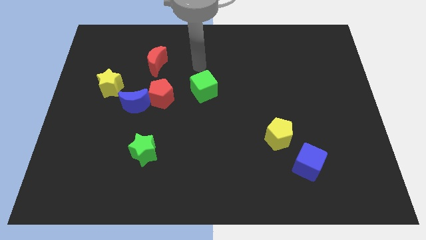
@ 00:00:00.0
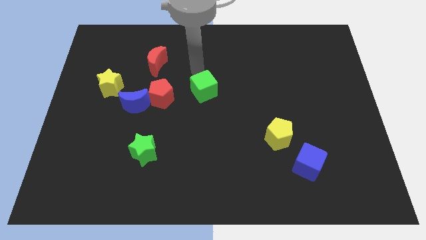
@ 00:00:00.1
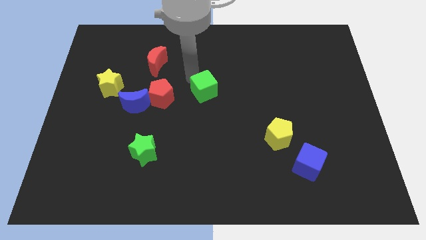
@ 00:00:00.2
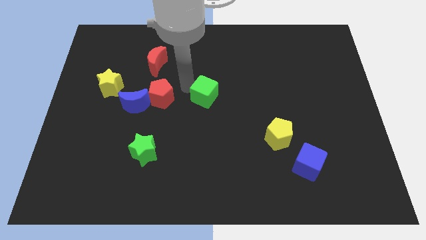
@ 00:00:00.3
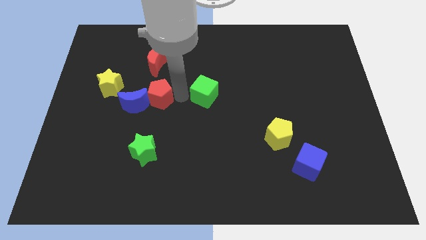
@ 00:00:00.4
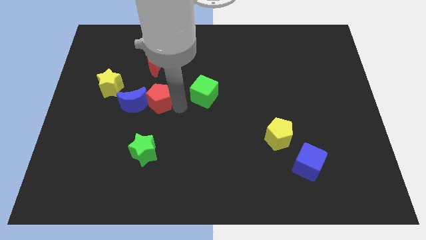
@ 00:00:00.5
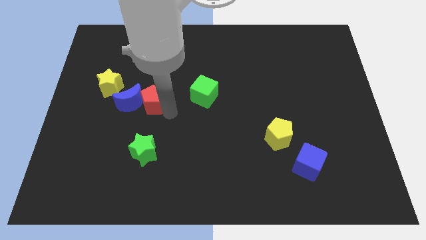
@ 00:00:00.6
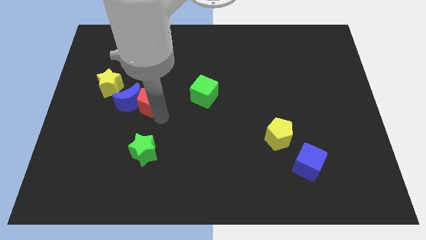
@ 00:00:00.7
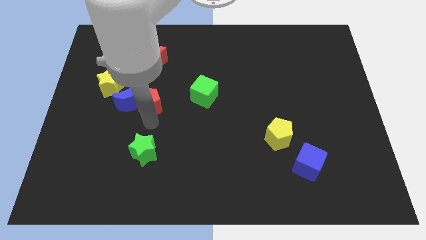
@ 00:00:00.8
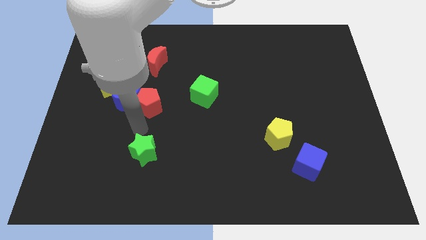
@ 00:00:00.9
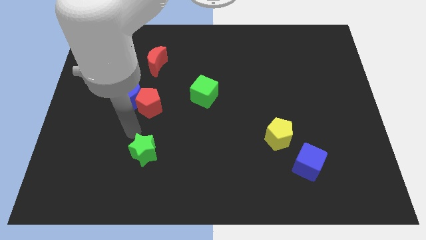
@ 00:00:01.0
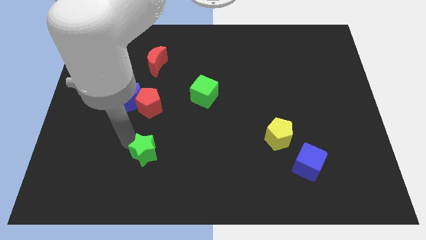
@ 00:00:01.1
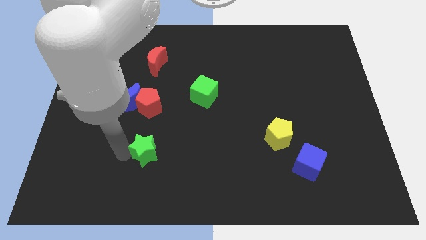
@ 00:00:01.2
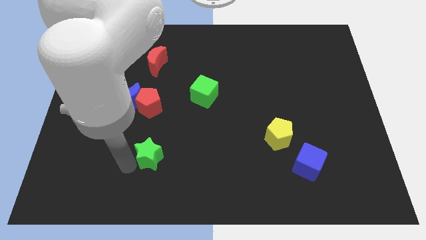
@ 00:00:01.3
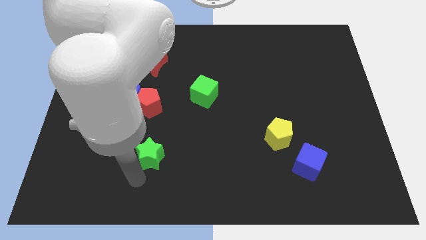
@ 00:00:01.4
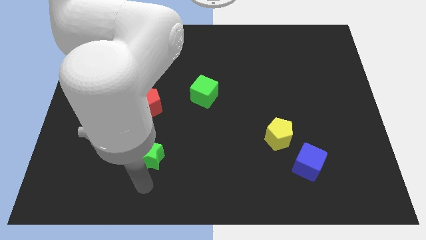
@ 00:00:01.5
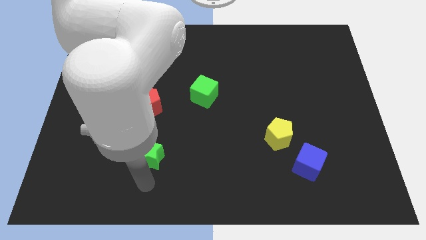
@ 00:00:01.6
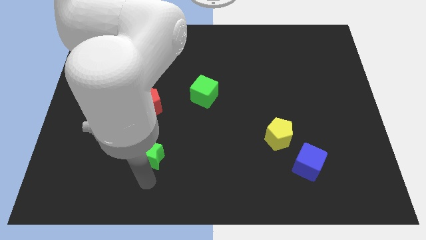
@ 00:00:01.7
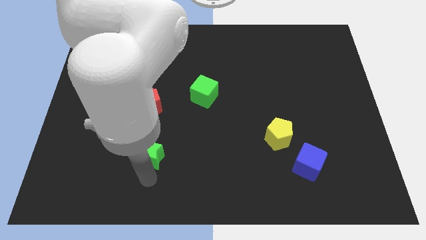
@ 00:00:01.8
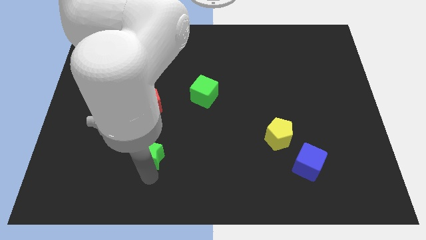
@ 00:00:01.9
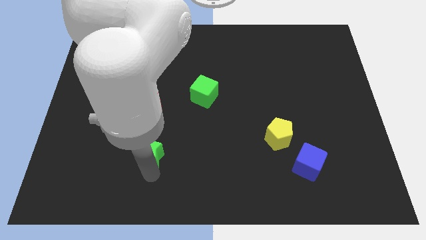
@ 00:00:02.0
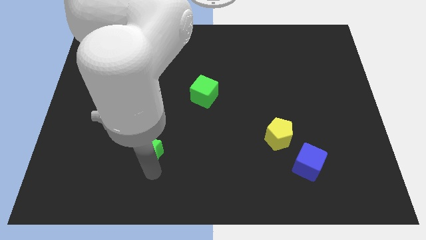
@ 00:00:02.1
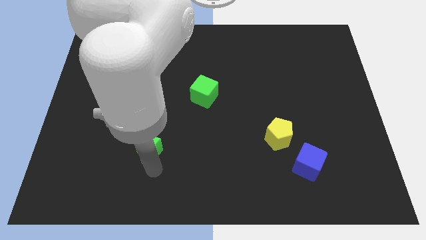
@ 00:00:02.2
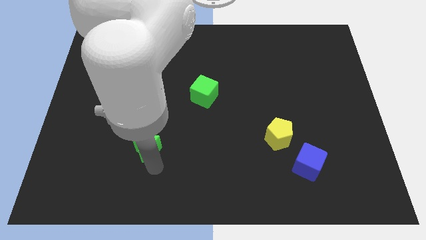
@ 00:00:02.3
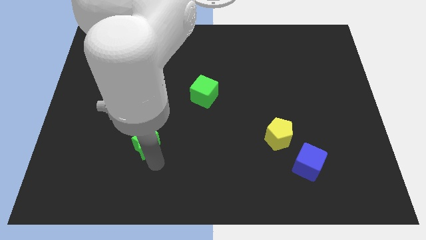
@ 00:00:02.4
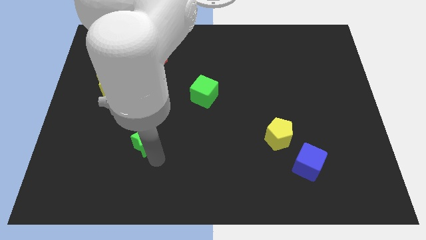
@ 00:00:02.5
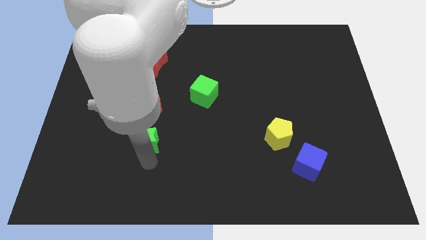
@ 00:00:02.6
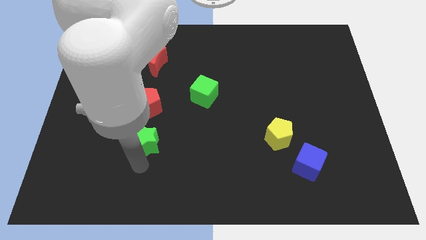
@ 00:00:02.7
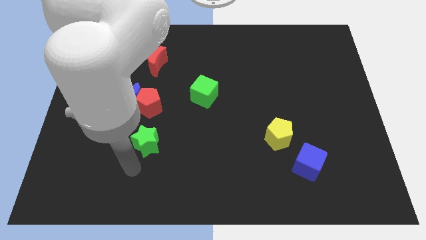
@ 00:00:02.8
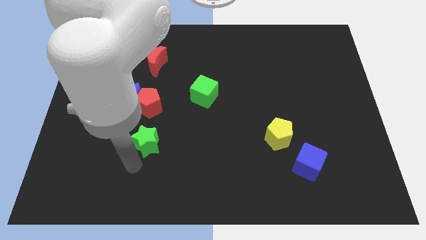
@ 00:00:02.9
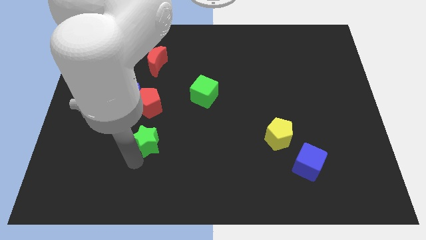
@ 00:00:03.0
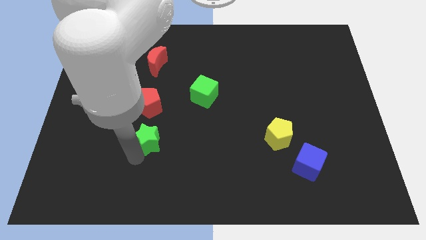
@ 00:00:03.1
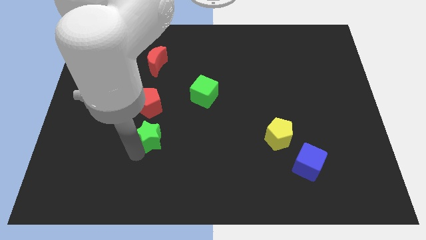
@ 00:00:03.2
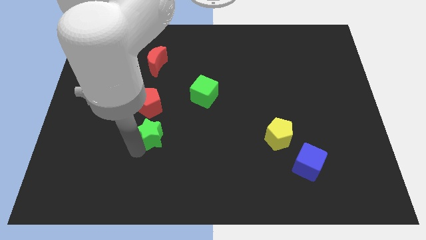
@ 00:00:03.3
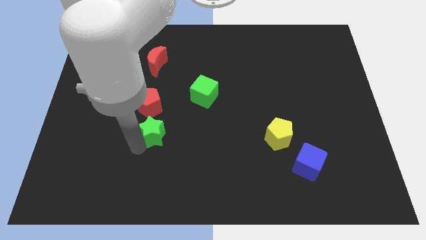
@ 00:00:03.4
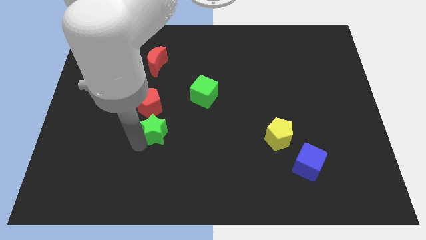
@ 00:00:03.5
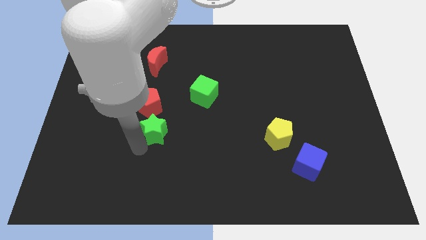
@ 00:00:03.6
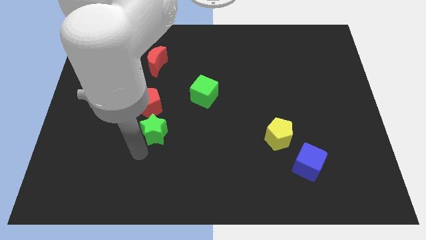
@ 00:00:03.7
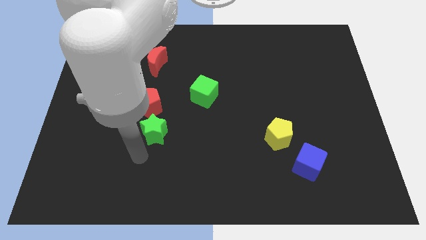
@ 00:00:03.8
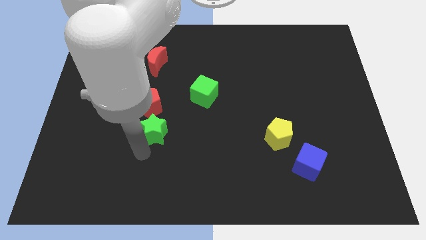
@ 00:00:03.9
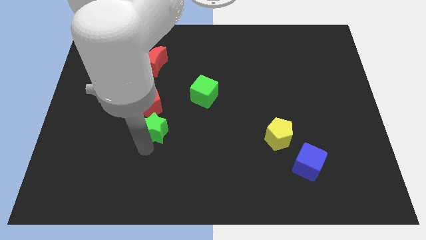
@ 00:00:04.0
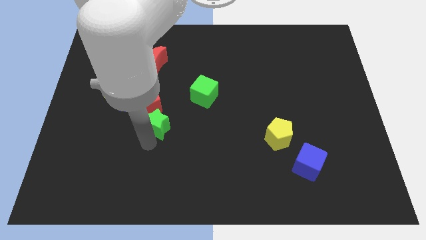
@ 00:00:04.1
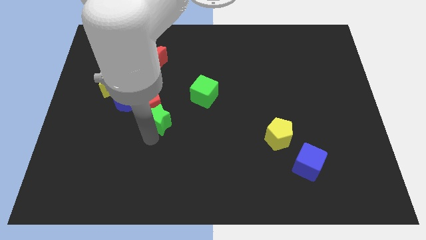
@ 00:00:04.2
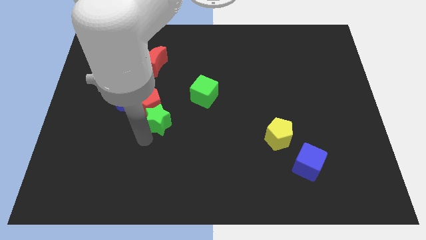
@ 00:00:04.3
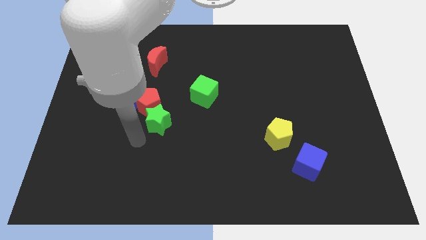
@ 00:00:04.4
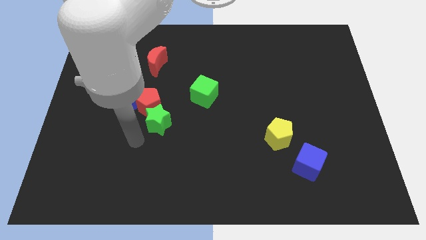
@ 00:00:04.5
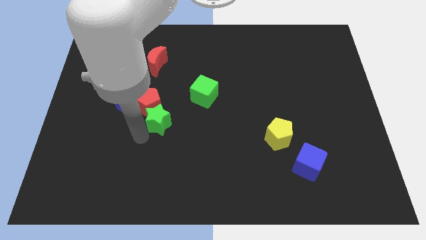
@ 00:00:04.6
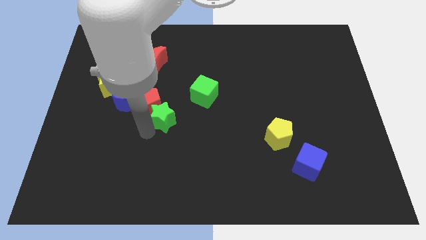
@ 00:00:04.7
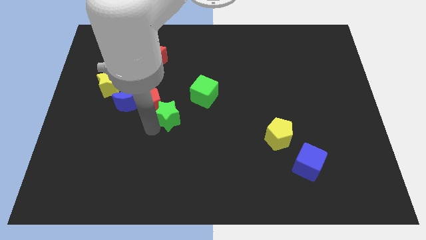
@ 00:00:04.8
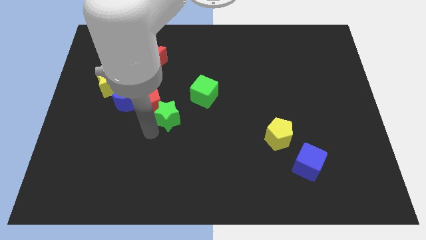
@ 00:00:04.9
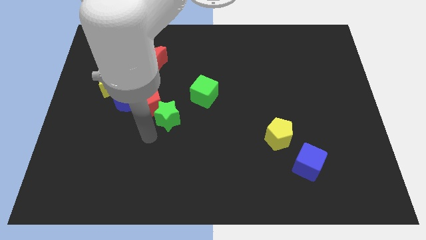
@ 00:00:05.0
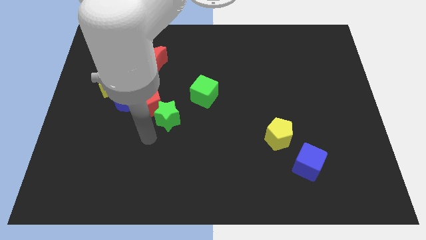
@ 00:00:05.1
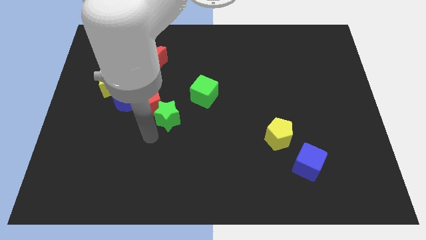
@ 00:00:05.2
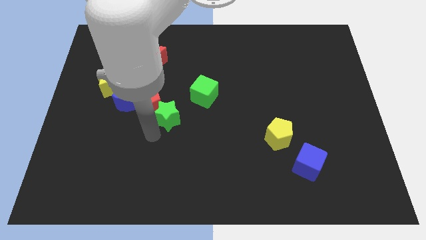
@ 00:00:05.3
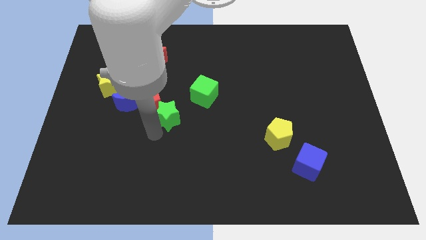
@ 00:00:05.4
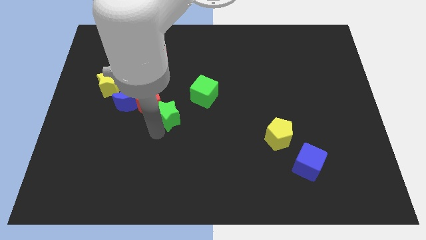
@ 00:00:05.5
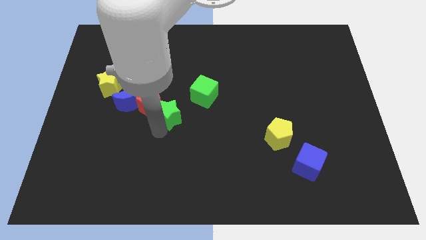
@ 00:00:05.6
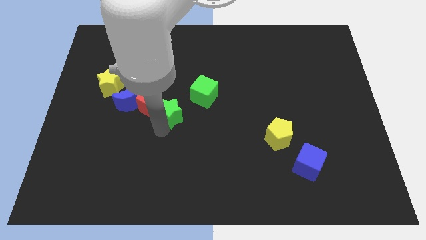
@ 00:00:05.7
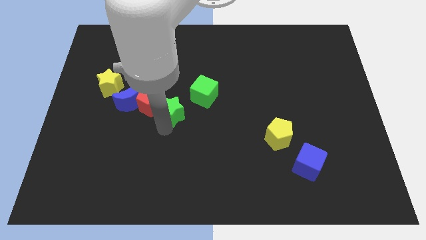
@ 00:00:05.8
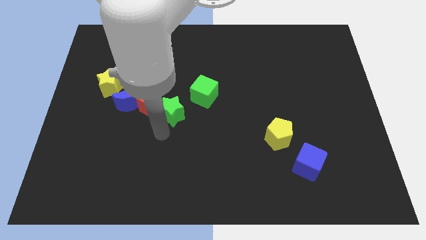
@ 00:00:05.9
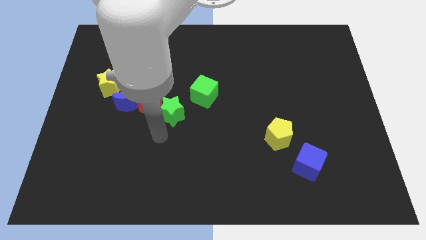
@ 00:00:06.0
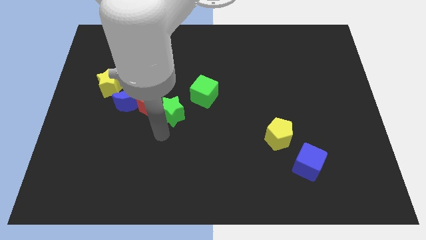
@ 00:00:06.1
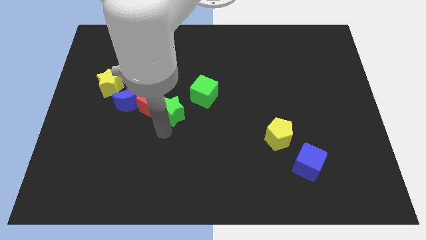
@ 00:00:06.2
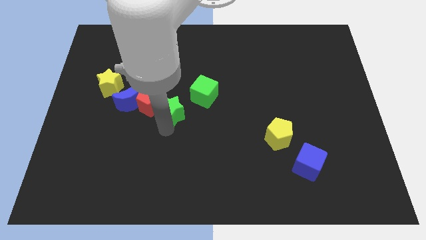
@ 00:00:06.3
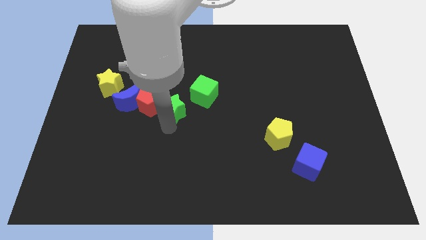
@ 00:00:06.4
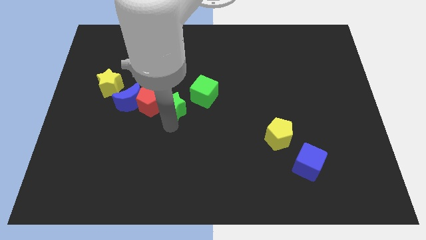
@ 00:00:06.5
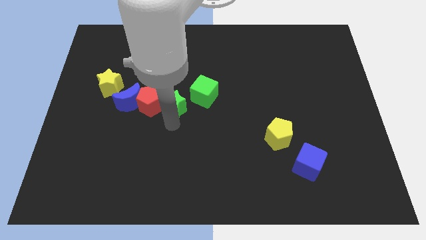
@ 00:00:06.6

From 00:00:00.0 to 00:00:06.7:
slide the green star to the top right of the red pentagon

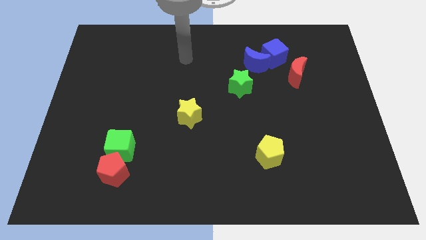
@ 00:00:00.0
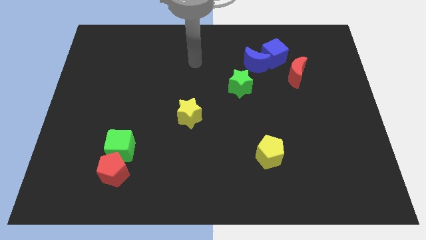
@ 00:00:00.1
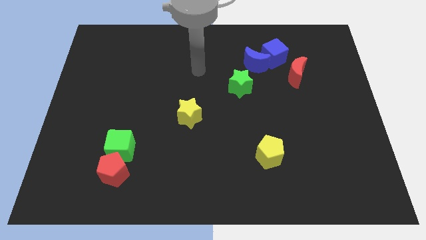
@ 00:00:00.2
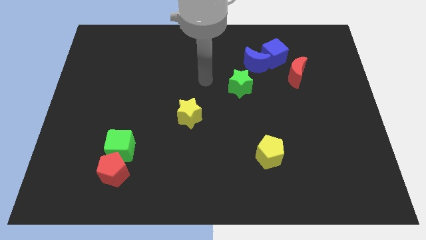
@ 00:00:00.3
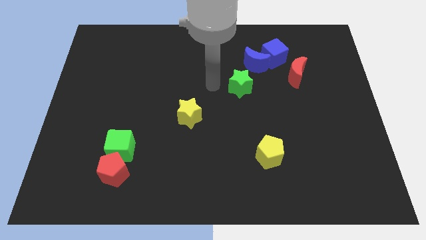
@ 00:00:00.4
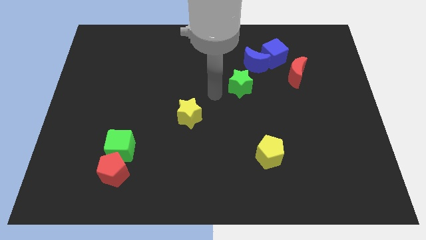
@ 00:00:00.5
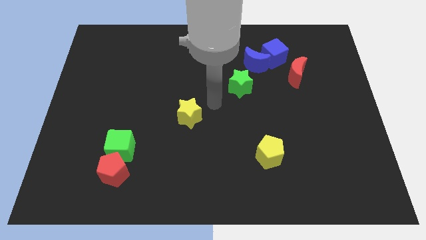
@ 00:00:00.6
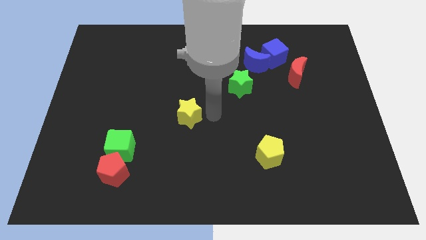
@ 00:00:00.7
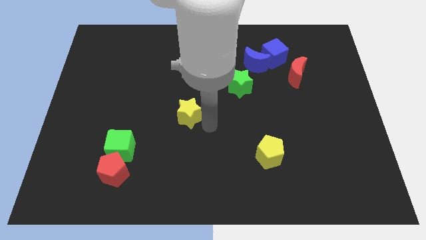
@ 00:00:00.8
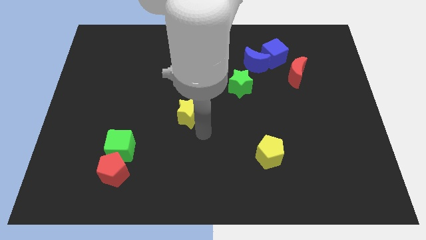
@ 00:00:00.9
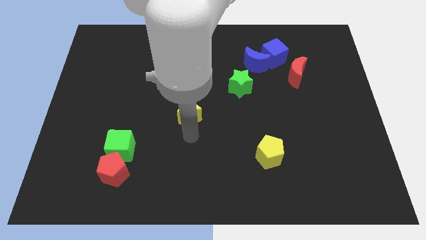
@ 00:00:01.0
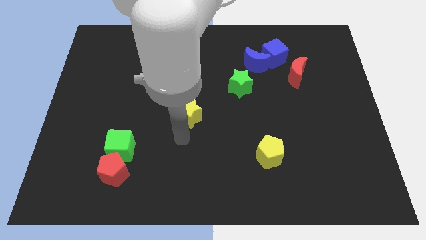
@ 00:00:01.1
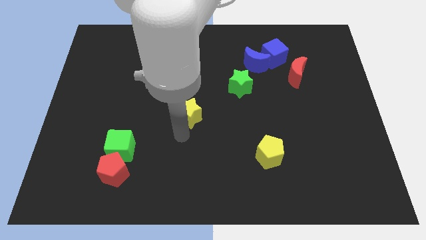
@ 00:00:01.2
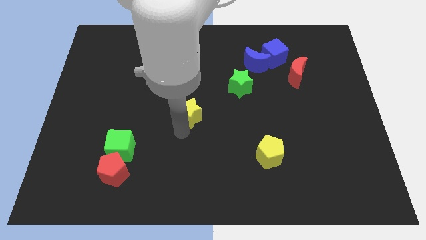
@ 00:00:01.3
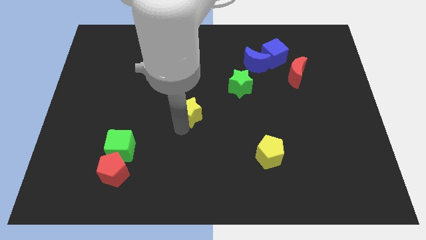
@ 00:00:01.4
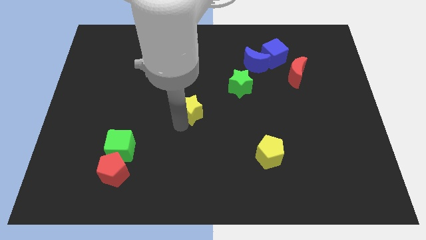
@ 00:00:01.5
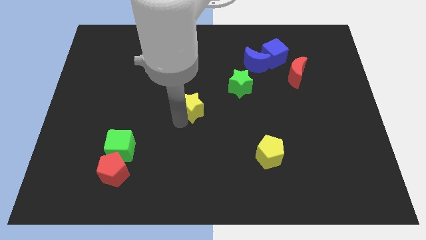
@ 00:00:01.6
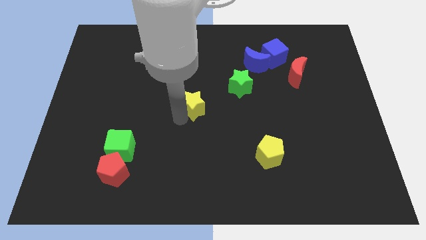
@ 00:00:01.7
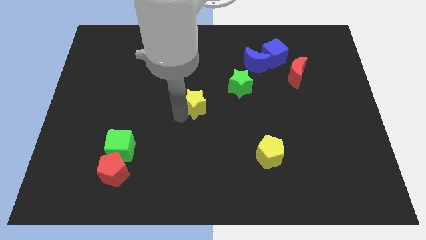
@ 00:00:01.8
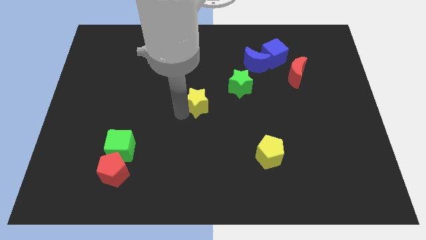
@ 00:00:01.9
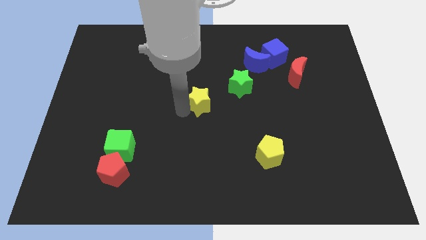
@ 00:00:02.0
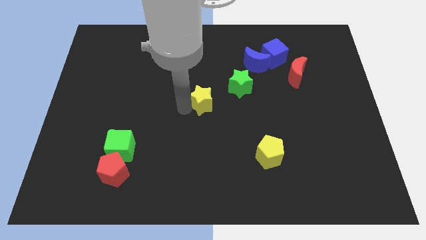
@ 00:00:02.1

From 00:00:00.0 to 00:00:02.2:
put the yellow star left of the green star
